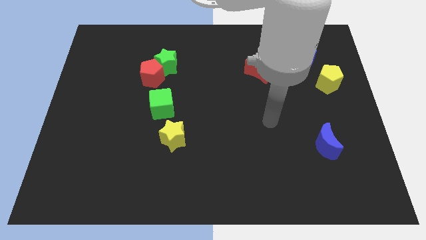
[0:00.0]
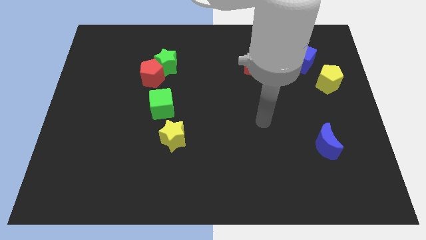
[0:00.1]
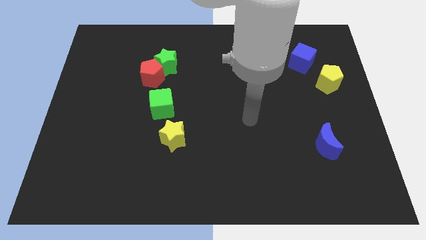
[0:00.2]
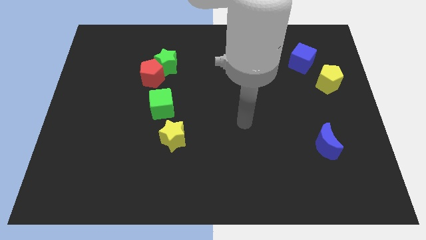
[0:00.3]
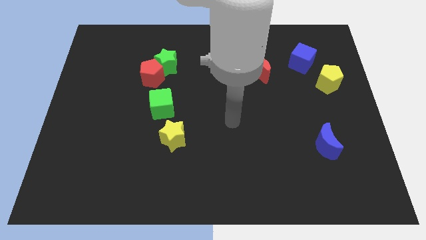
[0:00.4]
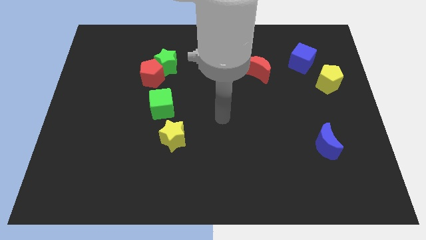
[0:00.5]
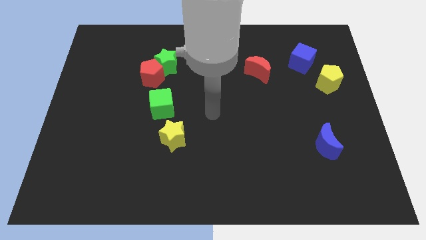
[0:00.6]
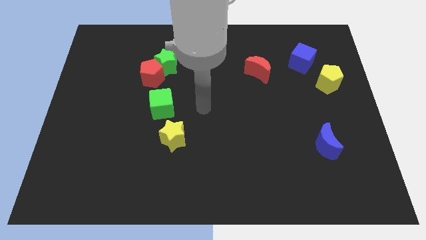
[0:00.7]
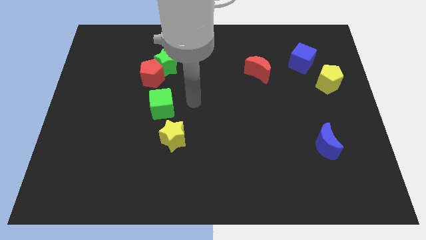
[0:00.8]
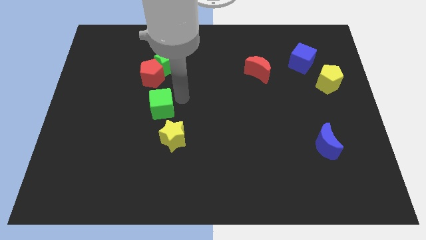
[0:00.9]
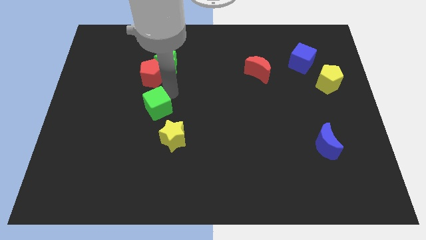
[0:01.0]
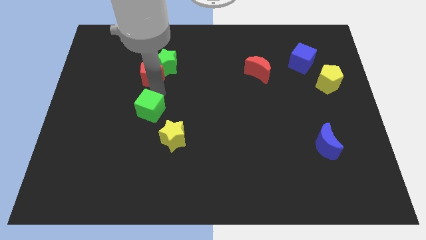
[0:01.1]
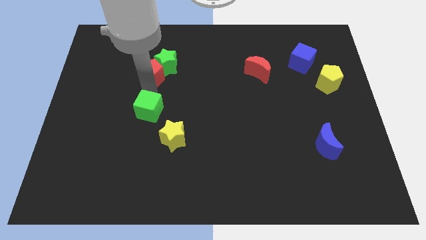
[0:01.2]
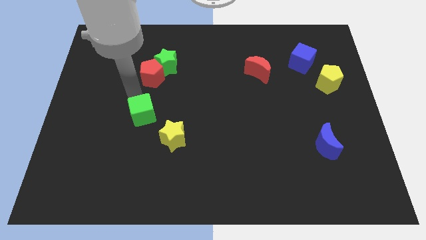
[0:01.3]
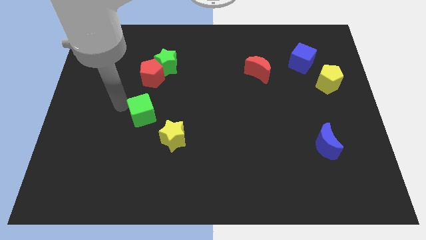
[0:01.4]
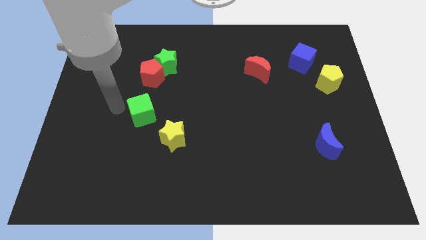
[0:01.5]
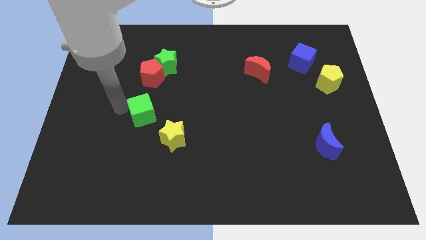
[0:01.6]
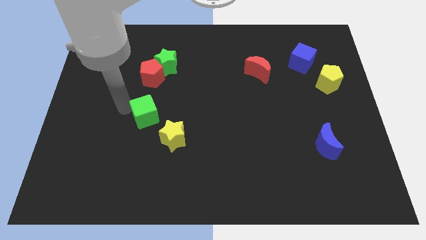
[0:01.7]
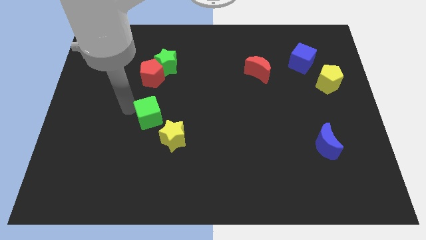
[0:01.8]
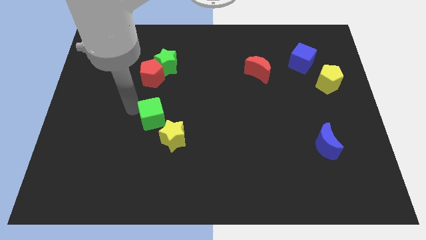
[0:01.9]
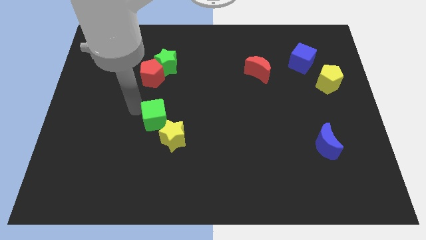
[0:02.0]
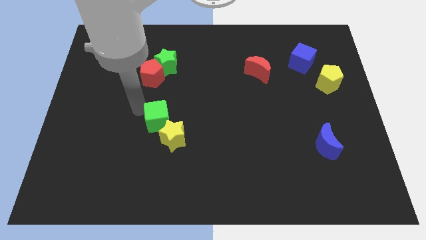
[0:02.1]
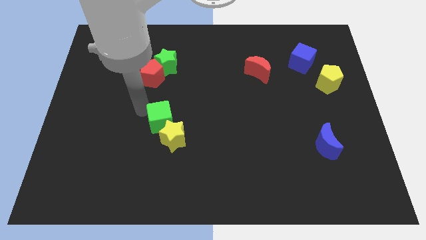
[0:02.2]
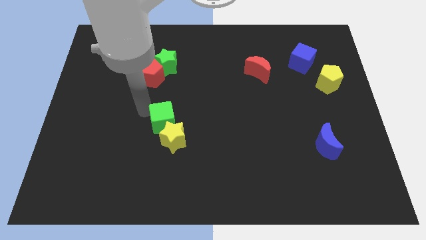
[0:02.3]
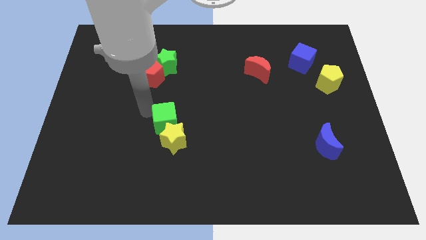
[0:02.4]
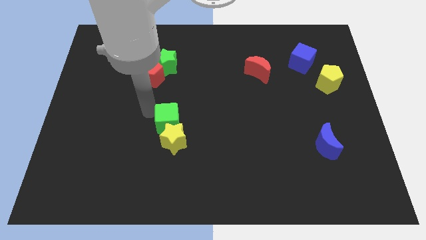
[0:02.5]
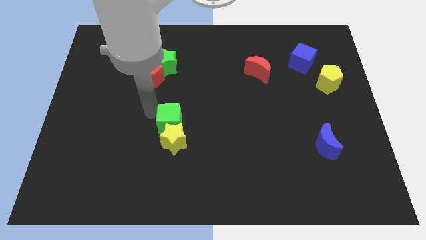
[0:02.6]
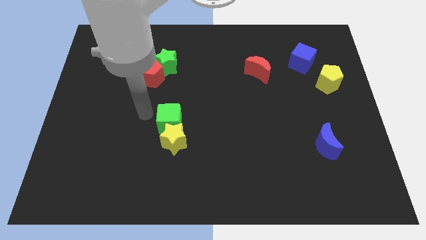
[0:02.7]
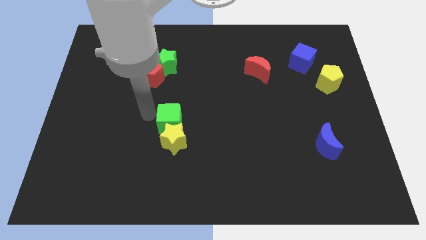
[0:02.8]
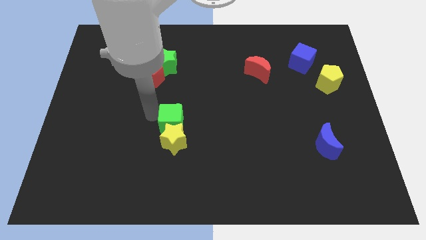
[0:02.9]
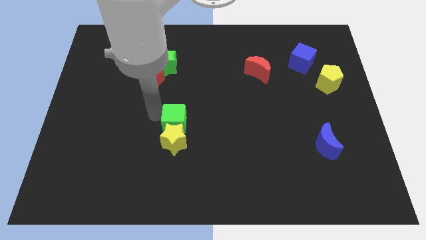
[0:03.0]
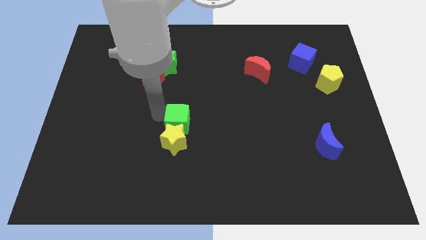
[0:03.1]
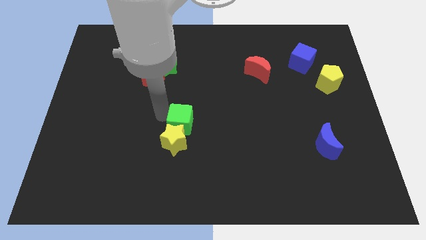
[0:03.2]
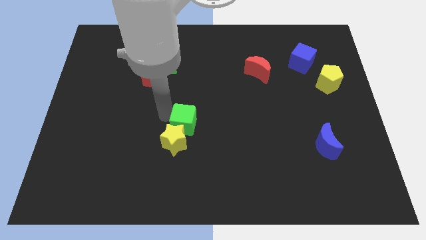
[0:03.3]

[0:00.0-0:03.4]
push the green cube down and then right a bit

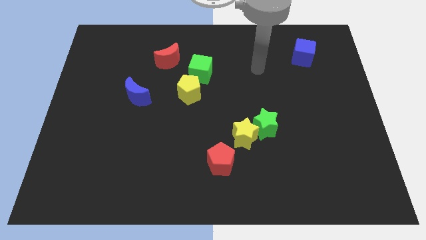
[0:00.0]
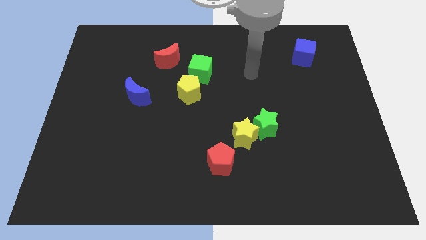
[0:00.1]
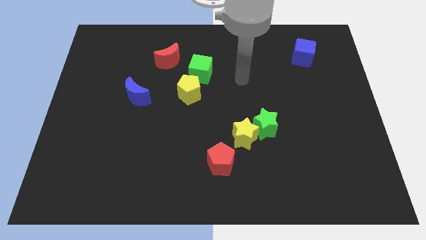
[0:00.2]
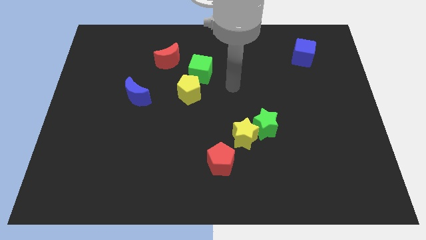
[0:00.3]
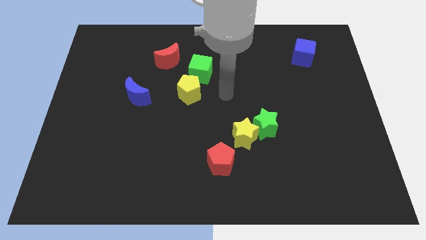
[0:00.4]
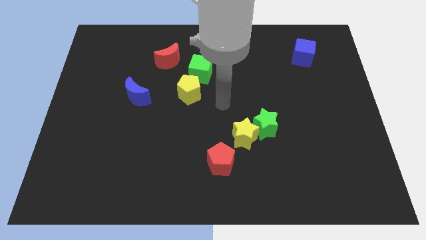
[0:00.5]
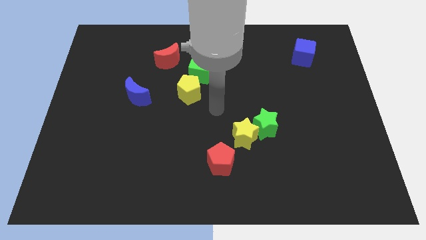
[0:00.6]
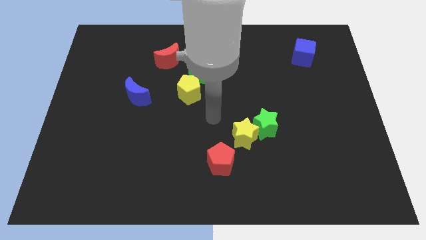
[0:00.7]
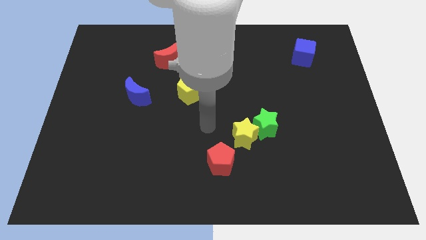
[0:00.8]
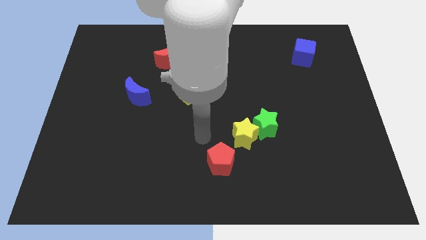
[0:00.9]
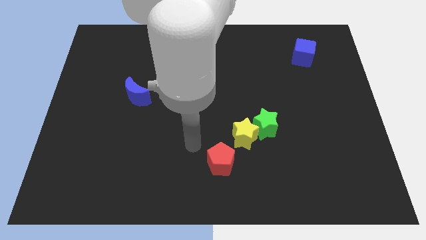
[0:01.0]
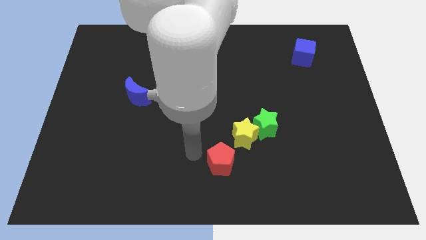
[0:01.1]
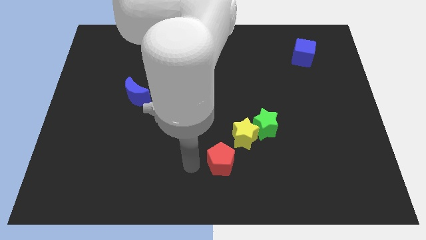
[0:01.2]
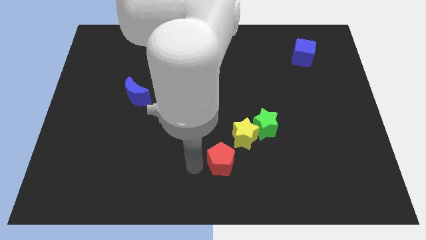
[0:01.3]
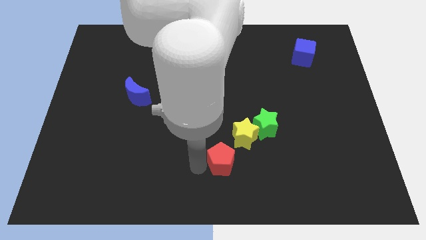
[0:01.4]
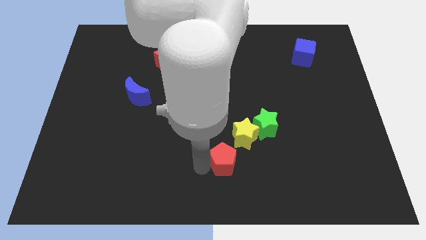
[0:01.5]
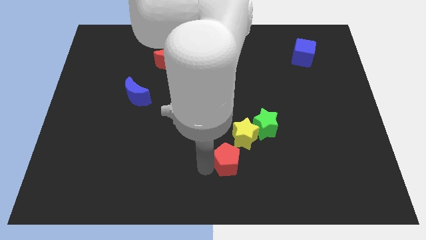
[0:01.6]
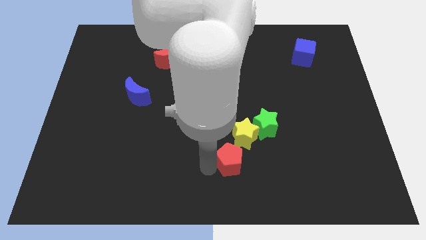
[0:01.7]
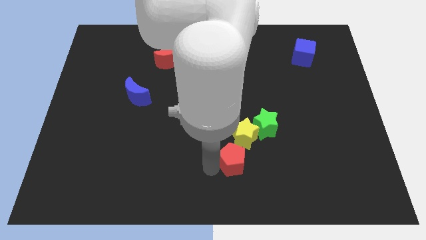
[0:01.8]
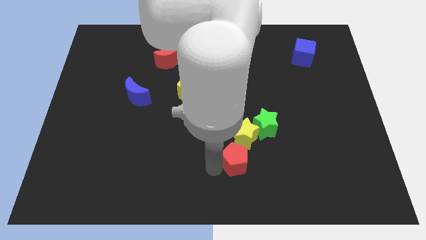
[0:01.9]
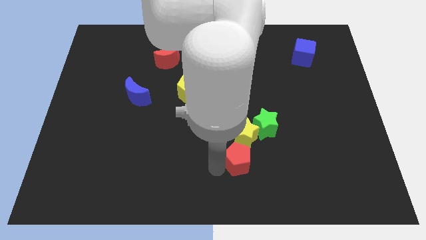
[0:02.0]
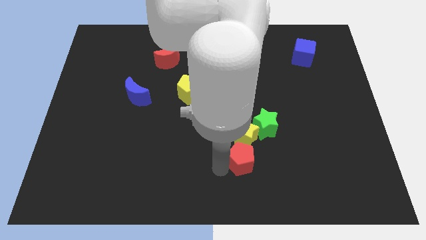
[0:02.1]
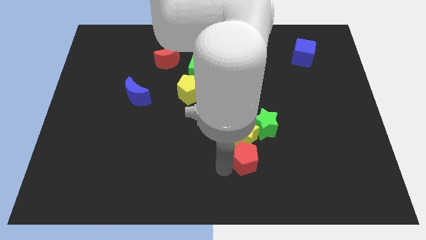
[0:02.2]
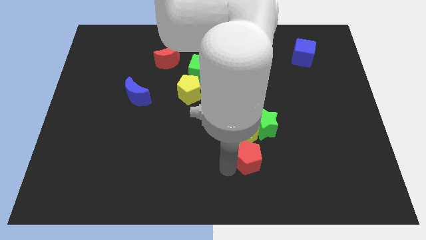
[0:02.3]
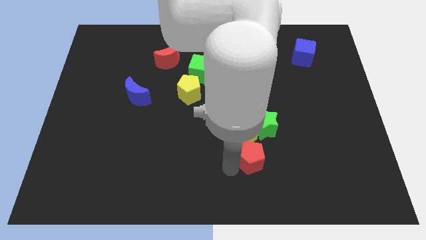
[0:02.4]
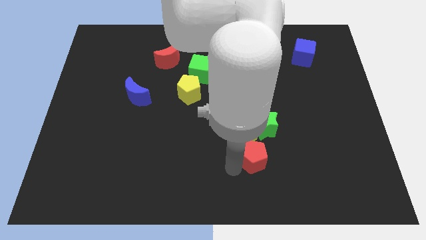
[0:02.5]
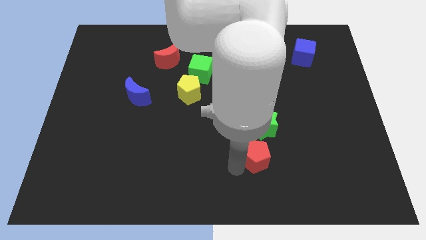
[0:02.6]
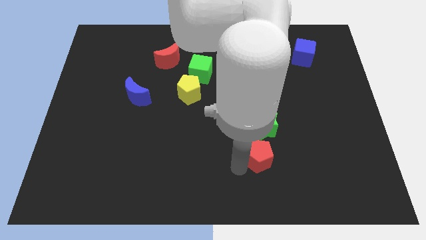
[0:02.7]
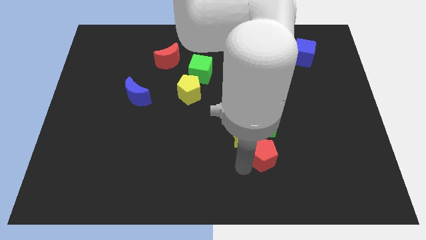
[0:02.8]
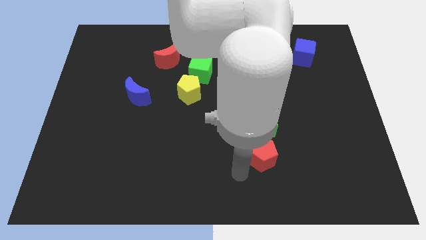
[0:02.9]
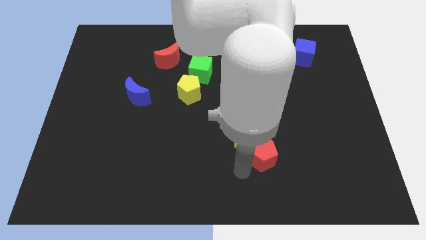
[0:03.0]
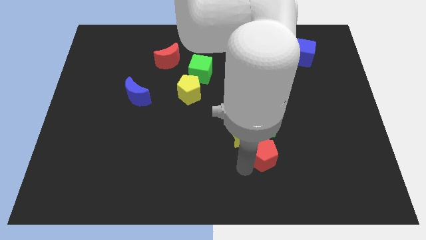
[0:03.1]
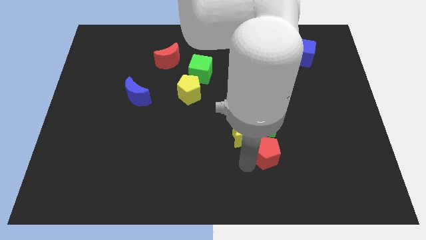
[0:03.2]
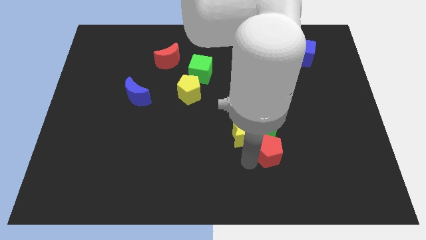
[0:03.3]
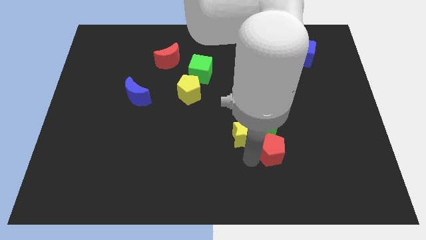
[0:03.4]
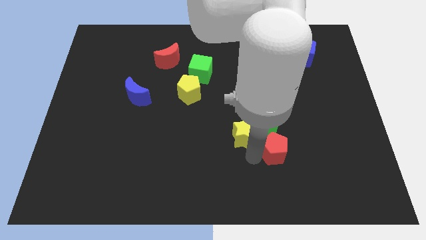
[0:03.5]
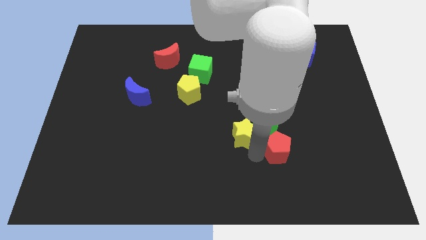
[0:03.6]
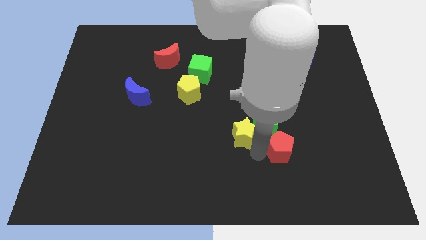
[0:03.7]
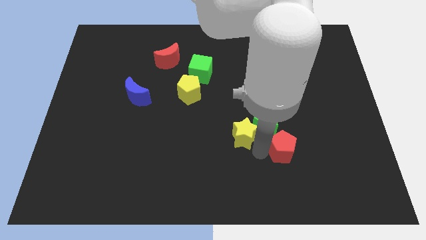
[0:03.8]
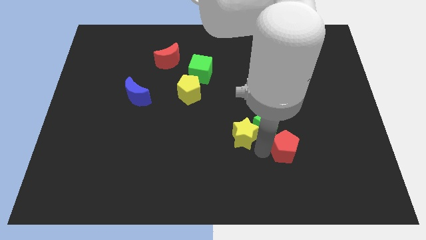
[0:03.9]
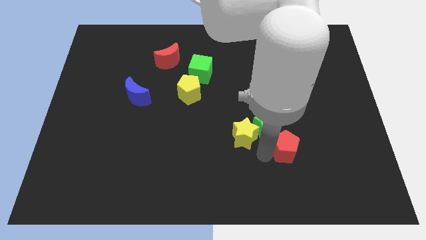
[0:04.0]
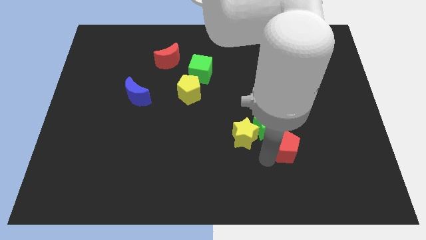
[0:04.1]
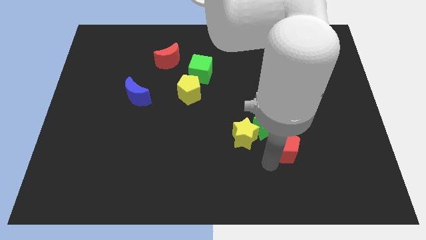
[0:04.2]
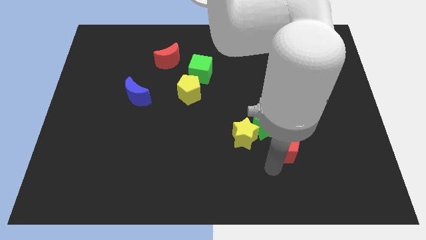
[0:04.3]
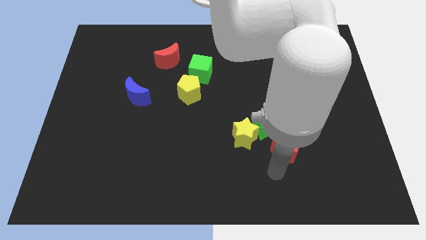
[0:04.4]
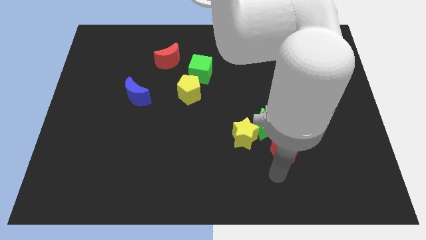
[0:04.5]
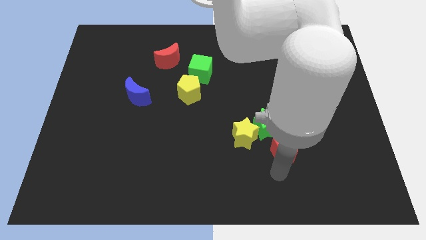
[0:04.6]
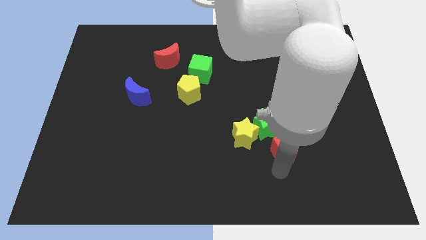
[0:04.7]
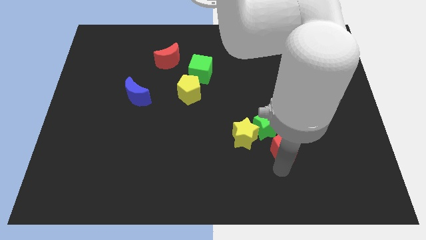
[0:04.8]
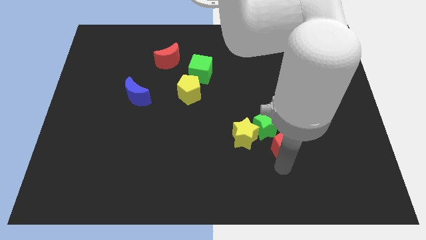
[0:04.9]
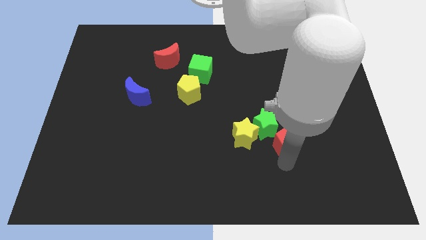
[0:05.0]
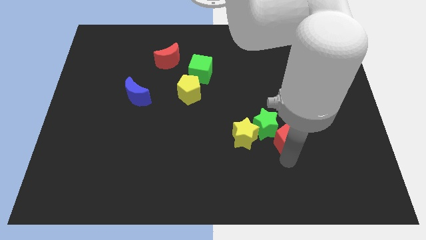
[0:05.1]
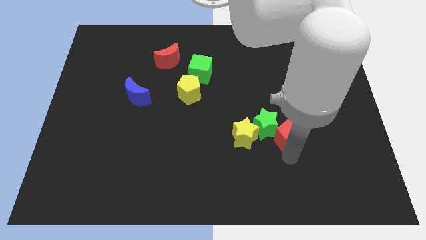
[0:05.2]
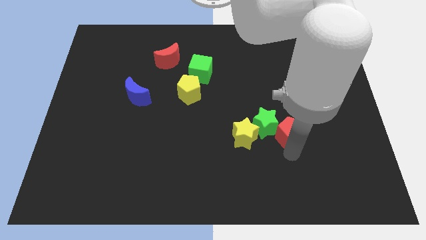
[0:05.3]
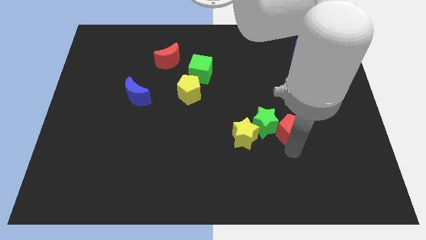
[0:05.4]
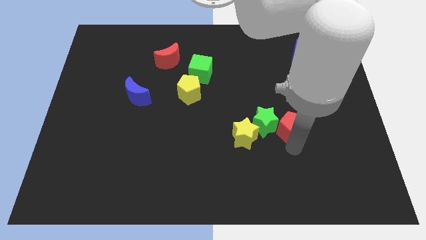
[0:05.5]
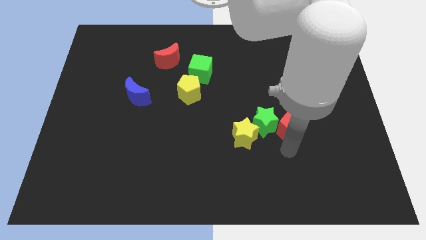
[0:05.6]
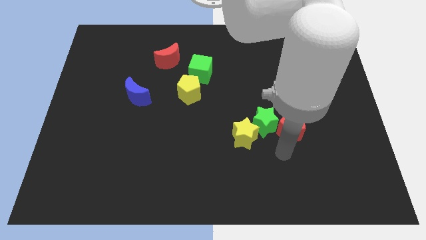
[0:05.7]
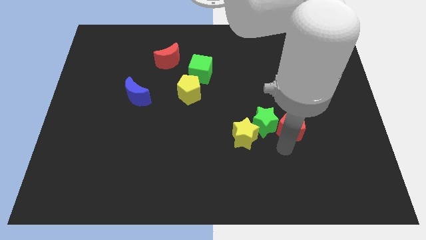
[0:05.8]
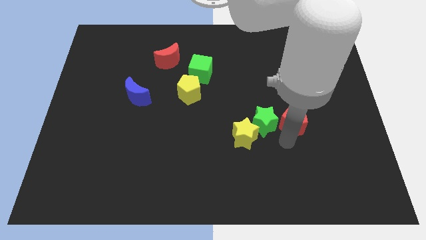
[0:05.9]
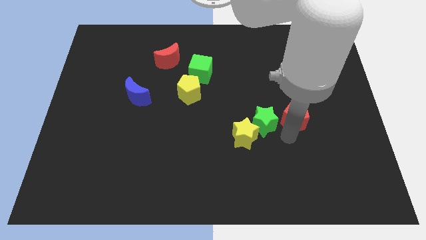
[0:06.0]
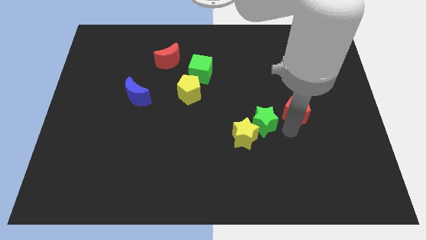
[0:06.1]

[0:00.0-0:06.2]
slide the red pentagon diagonally upwards and right
